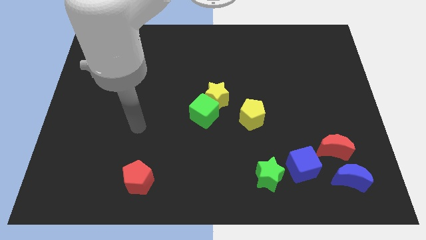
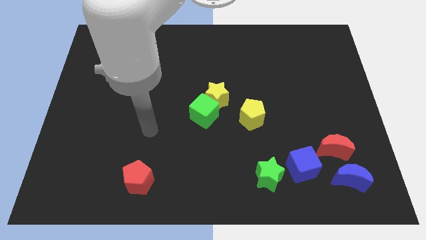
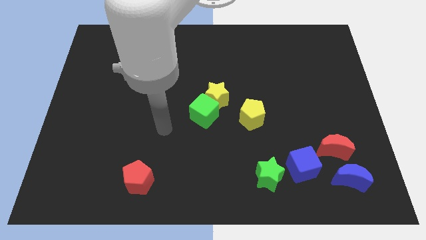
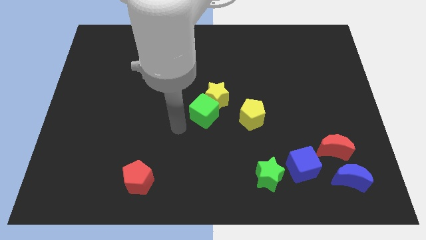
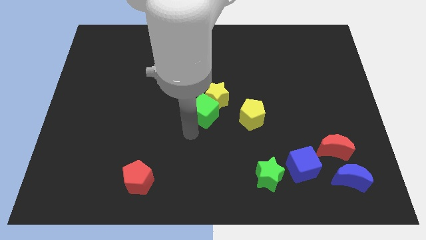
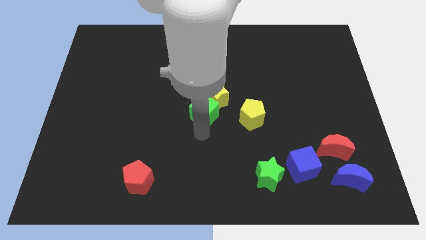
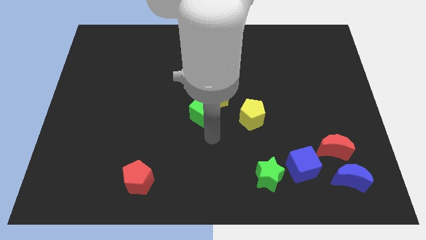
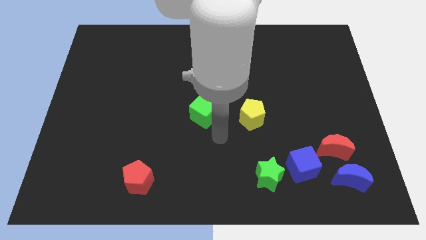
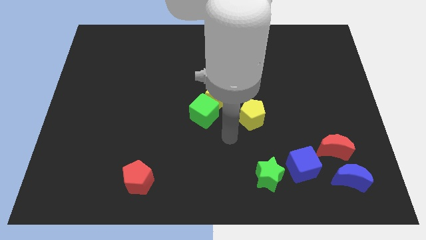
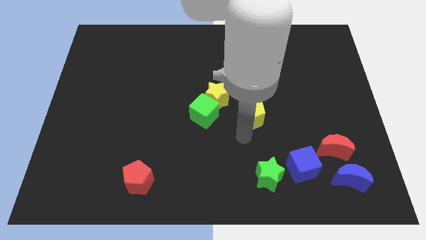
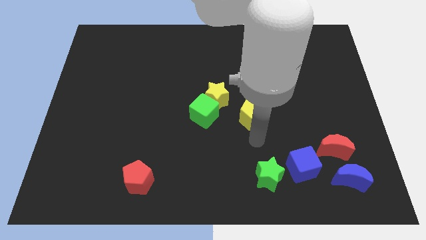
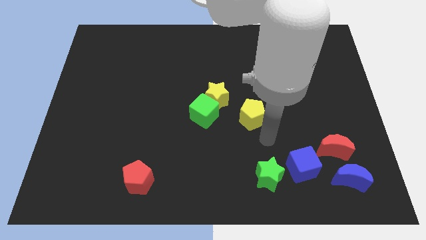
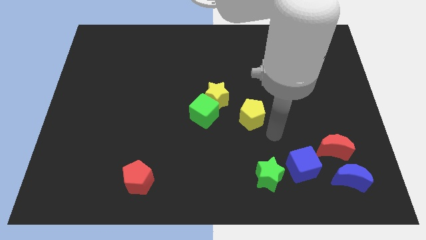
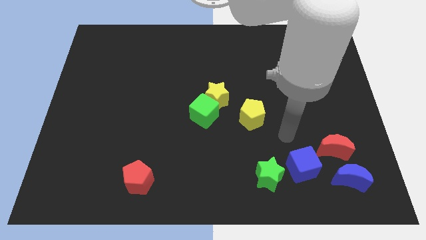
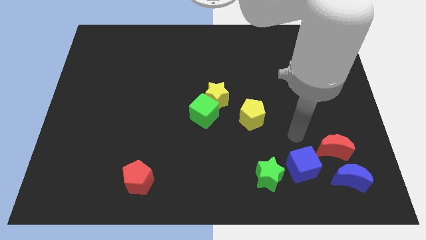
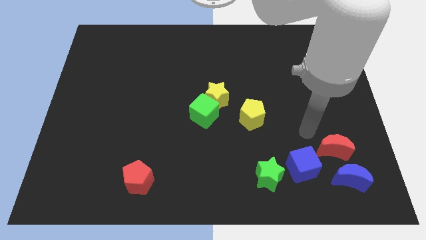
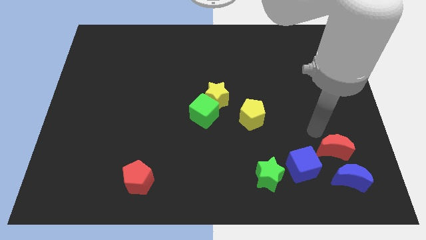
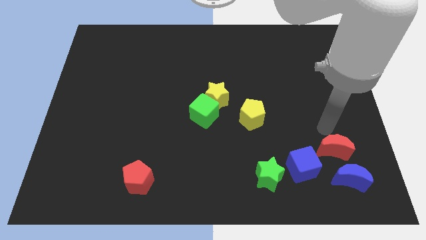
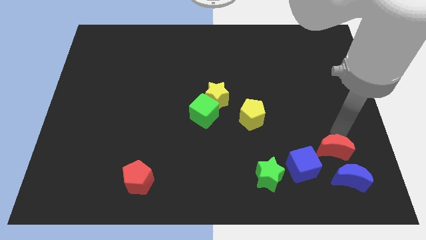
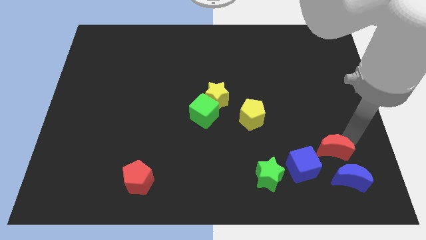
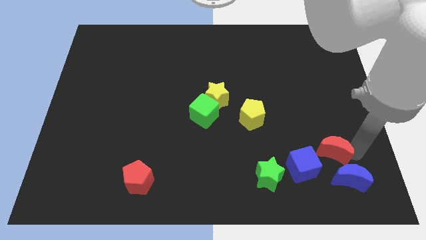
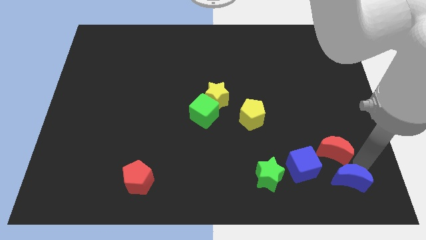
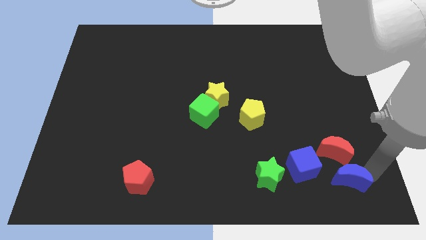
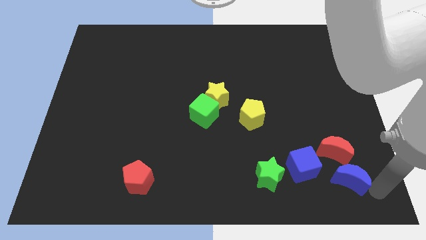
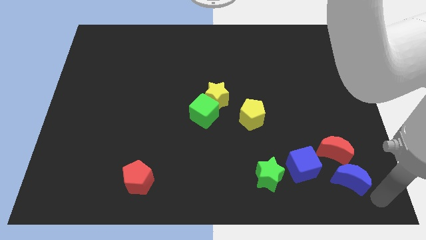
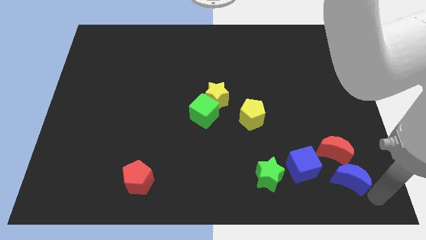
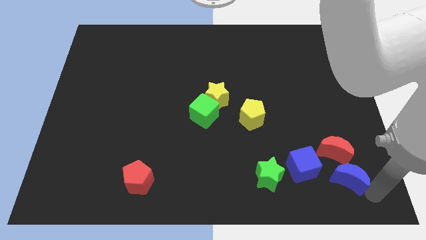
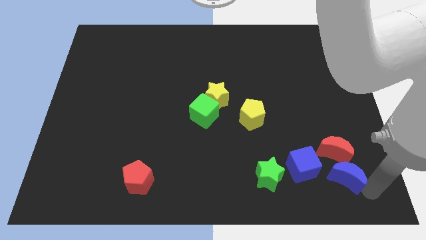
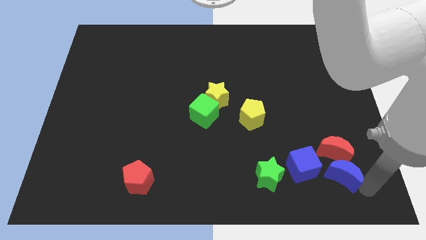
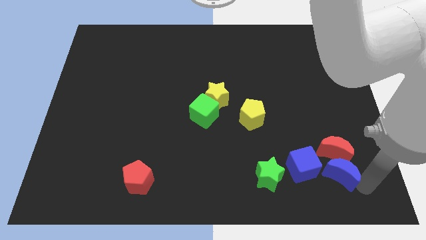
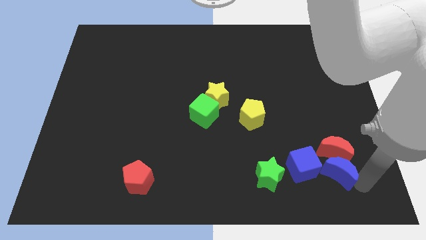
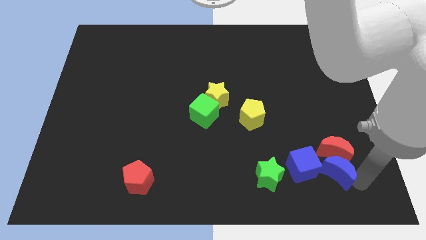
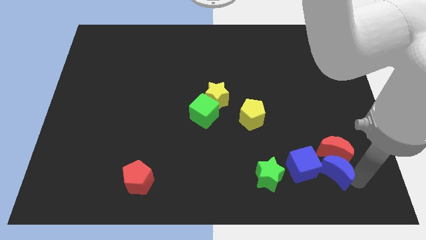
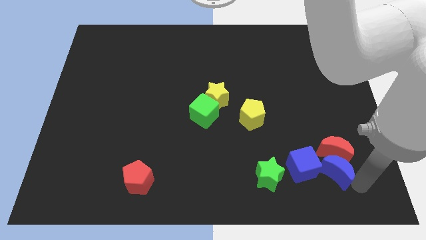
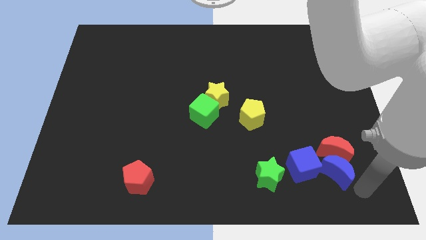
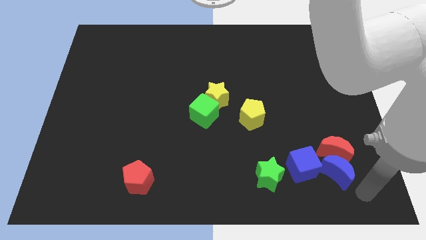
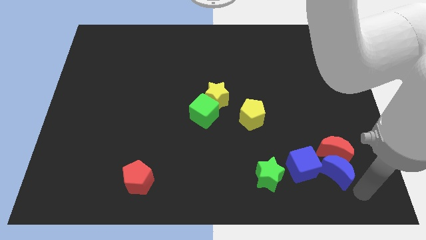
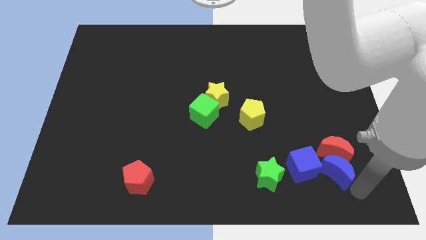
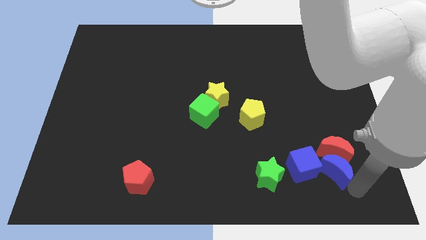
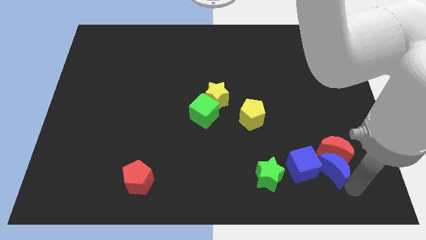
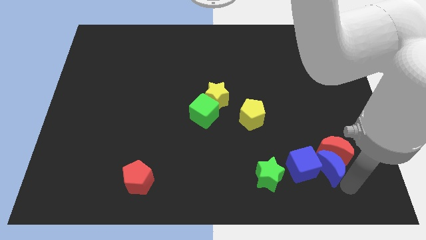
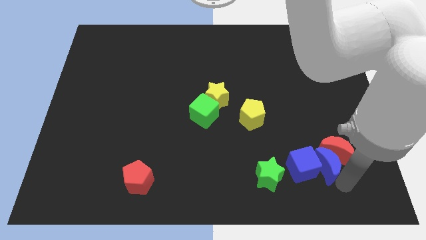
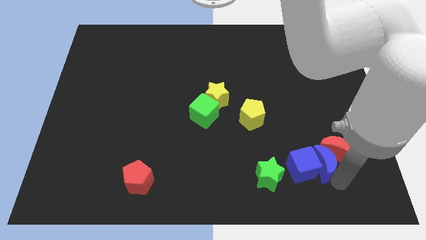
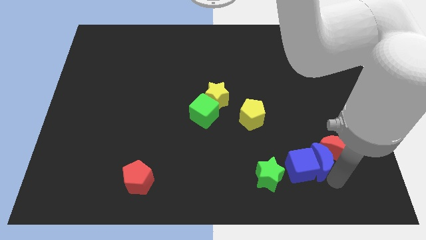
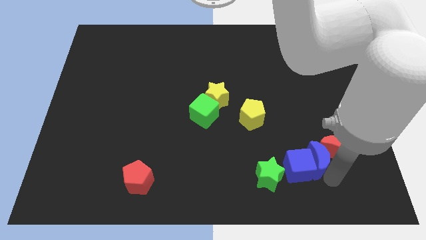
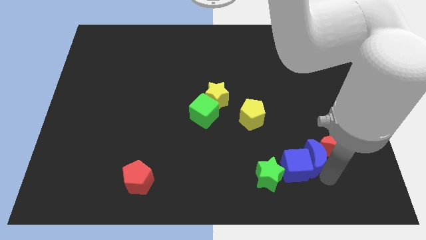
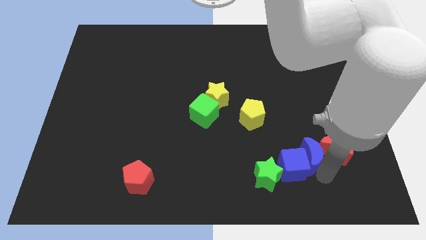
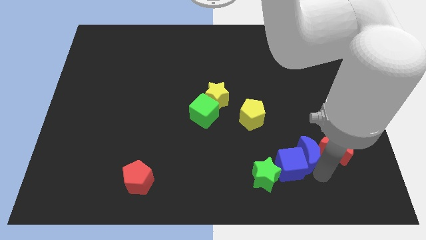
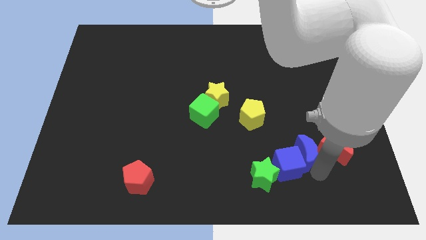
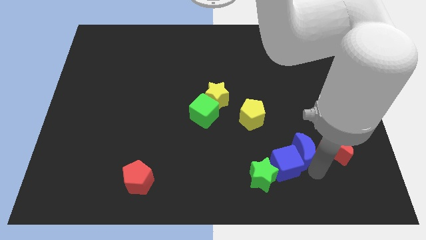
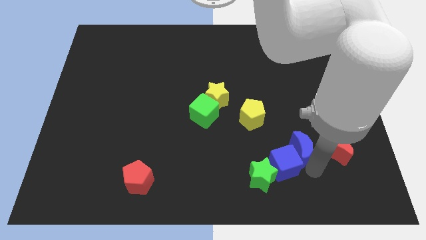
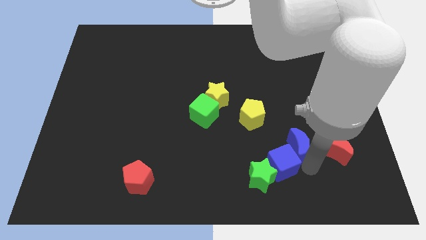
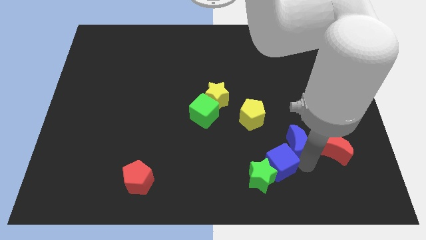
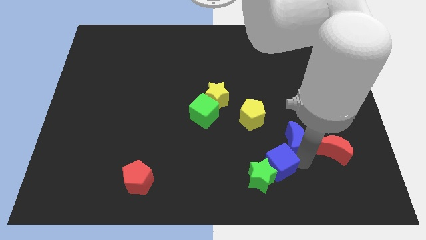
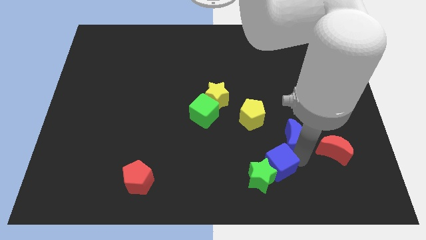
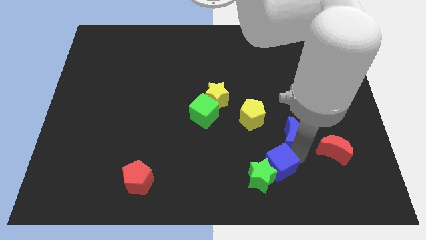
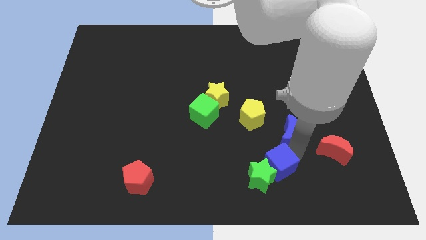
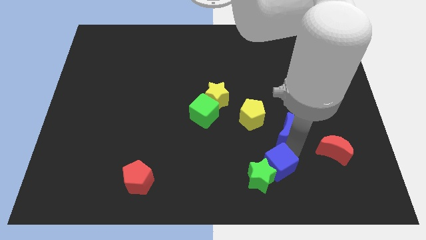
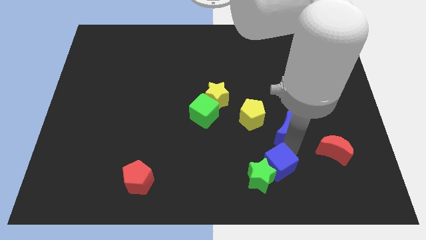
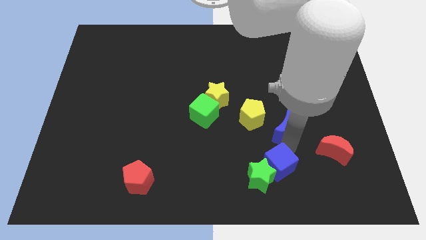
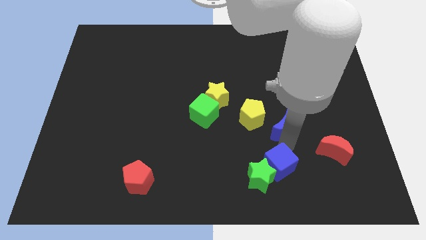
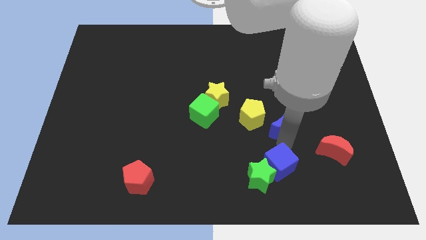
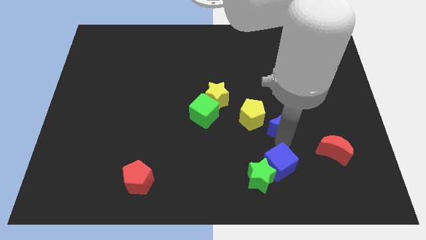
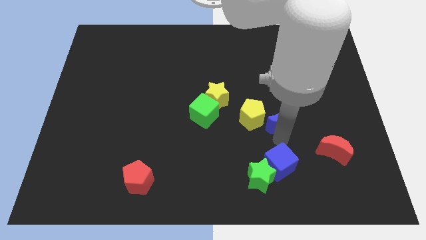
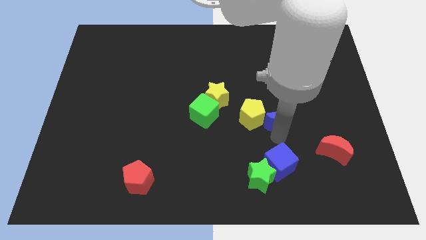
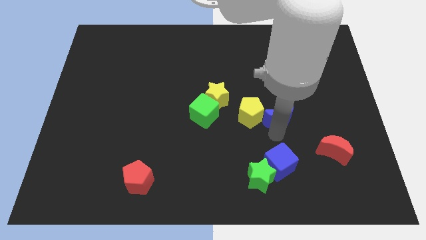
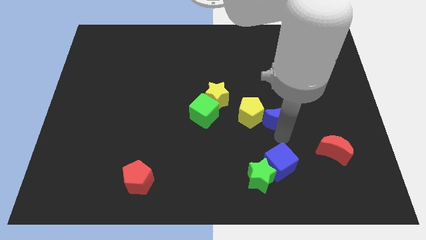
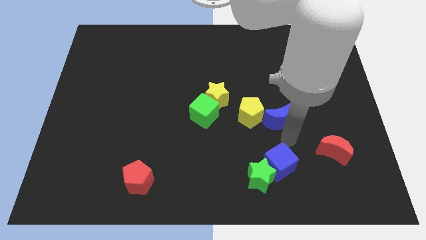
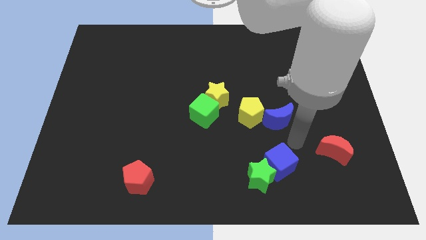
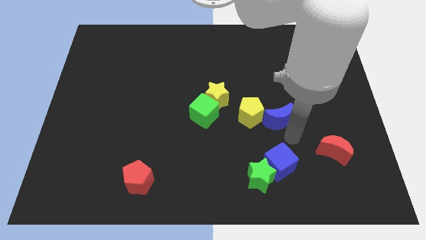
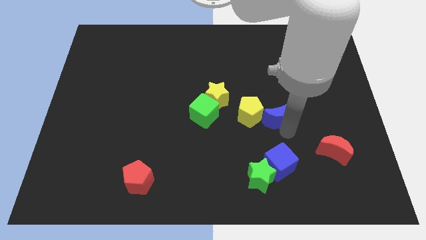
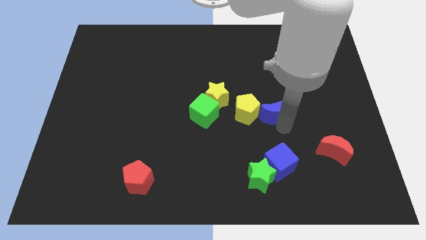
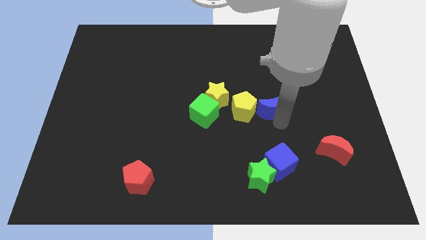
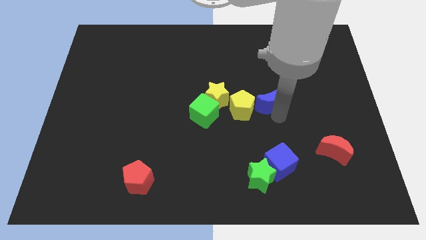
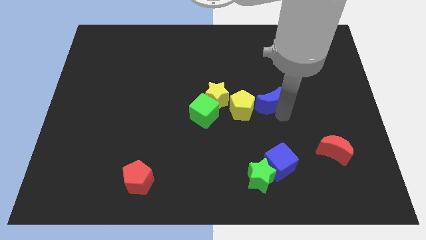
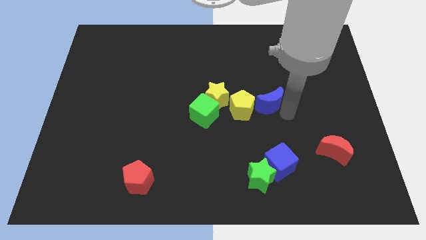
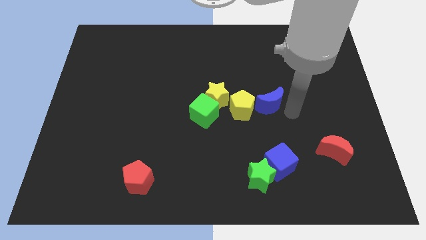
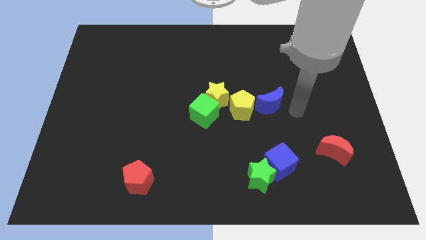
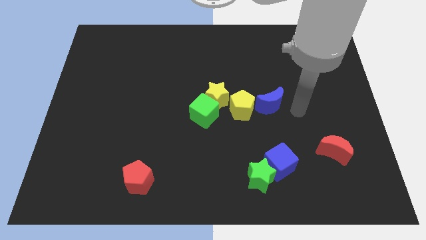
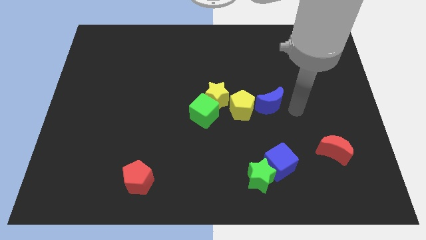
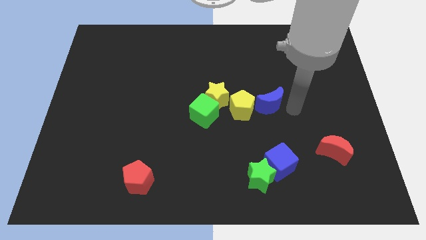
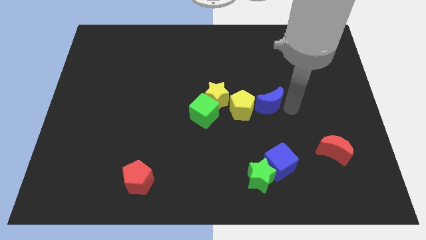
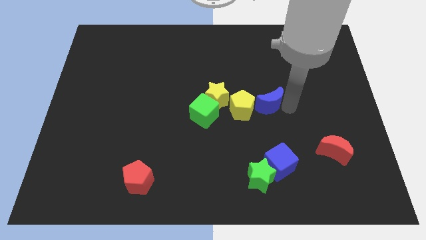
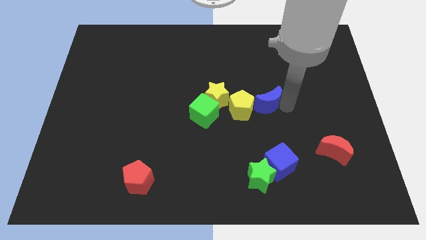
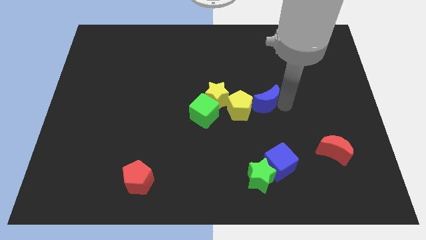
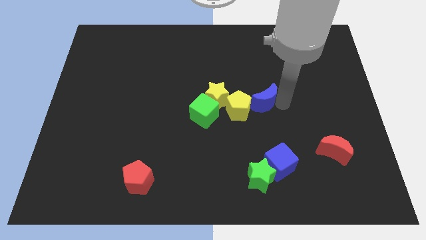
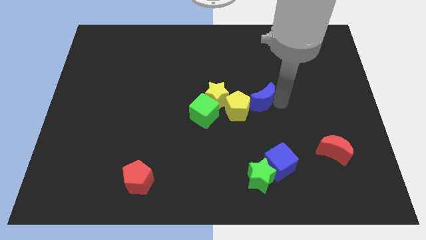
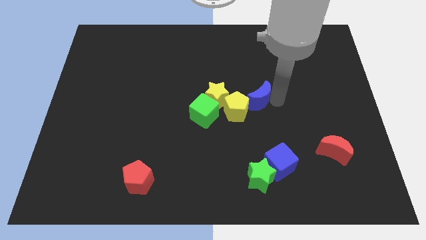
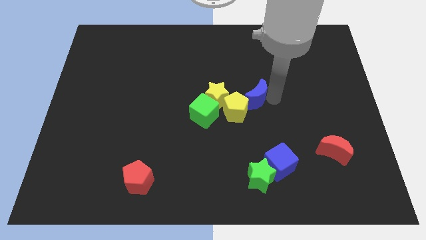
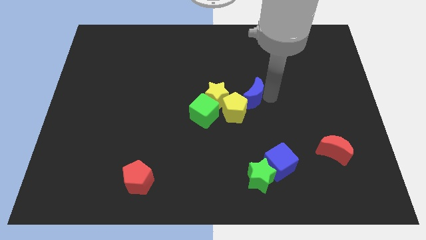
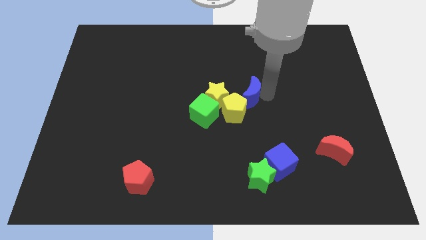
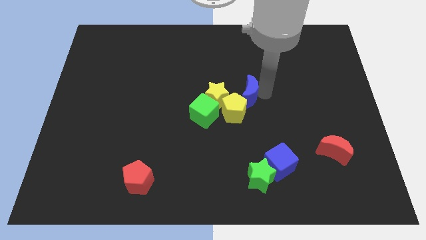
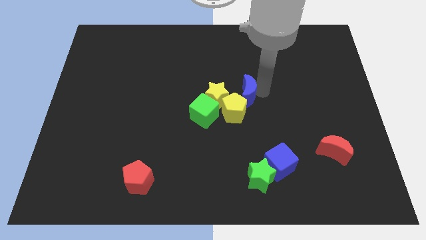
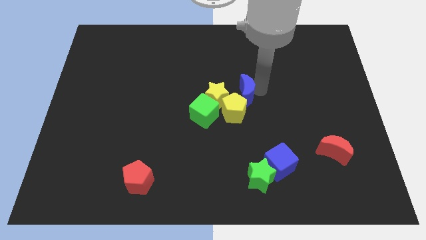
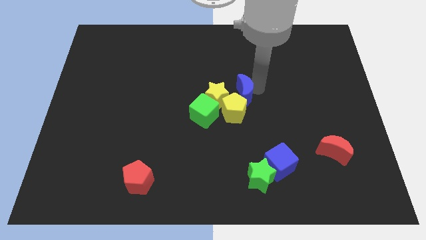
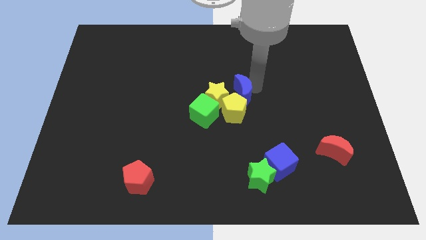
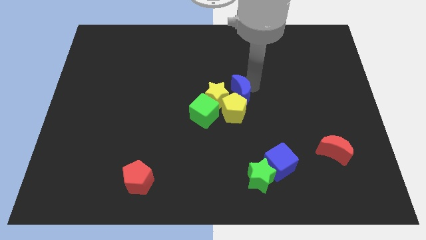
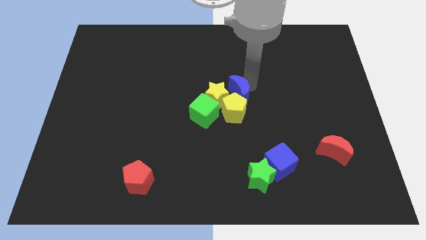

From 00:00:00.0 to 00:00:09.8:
move the blue moon to the yellow star
